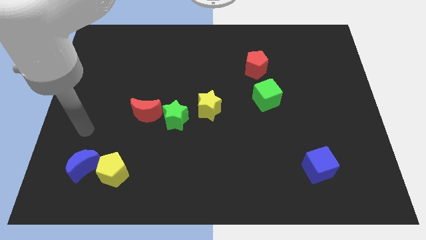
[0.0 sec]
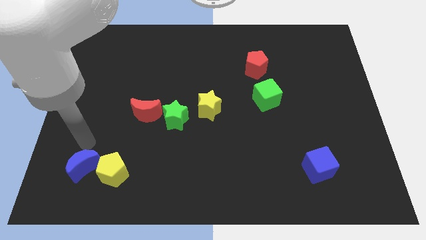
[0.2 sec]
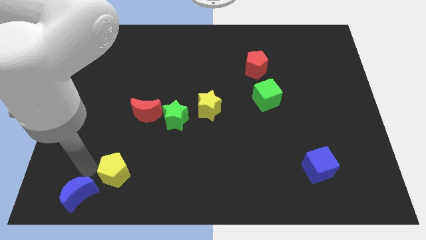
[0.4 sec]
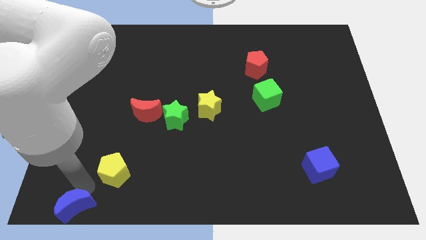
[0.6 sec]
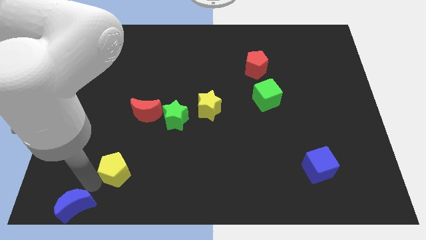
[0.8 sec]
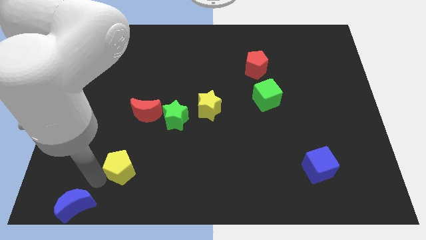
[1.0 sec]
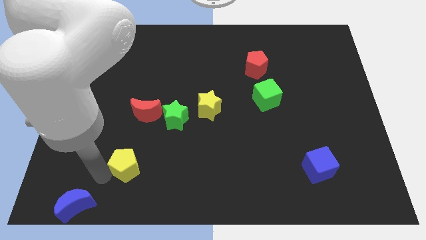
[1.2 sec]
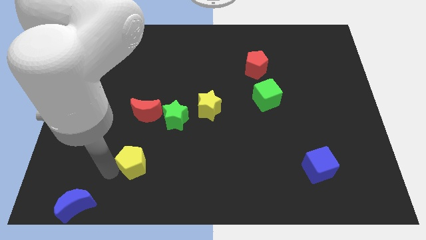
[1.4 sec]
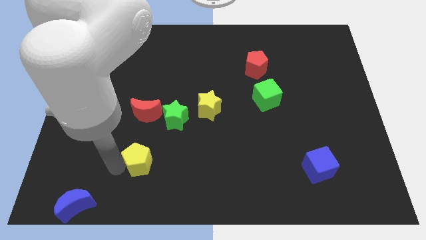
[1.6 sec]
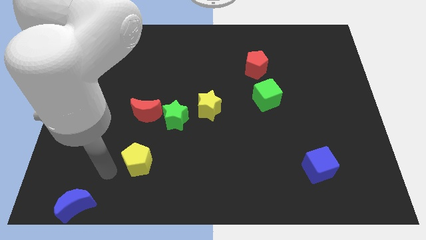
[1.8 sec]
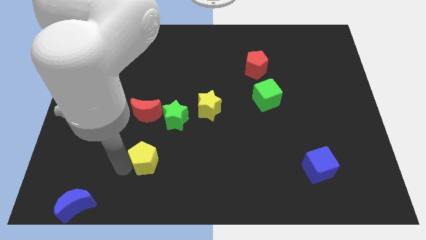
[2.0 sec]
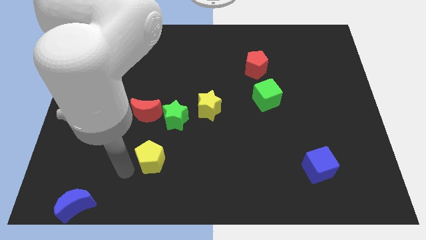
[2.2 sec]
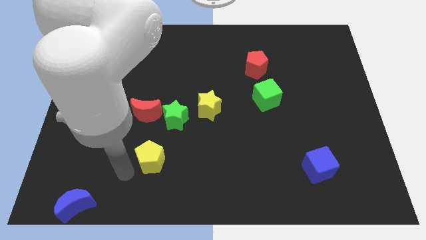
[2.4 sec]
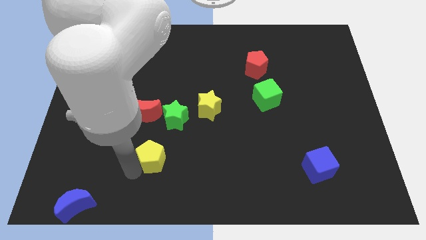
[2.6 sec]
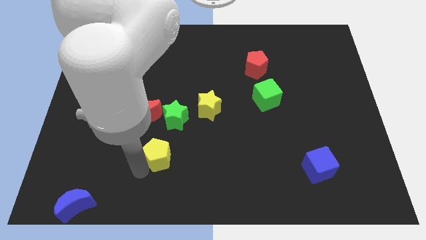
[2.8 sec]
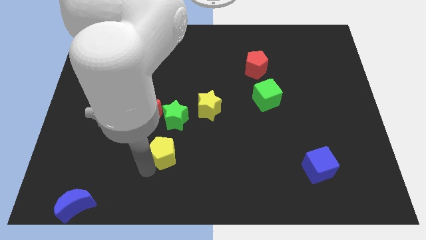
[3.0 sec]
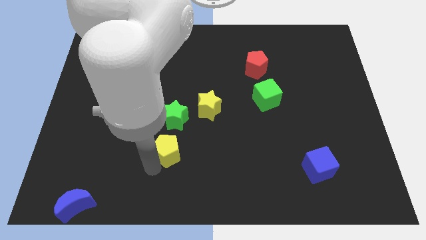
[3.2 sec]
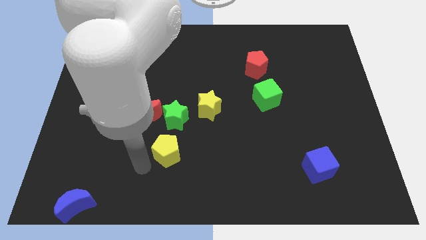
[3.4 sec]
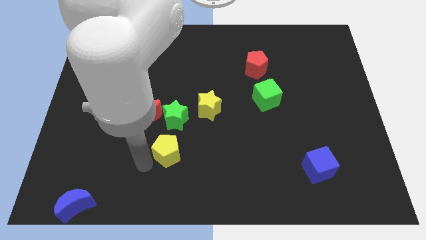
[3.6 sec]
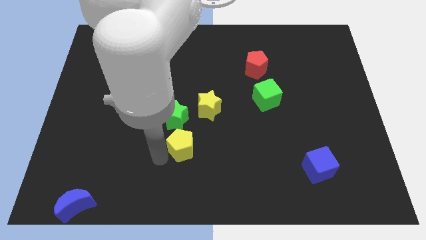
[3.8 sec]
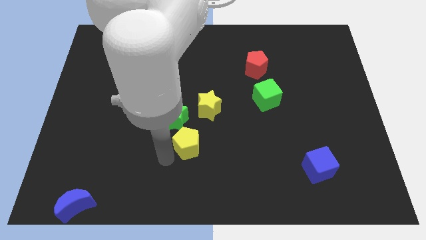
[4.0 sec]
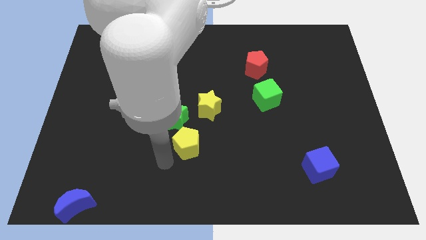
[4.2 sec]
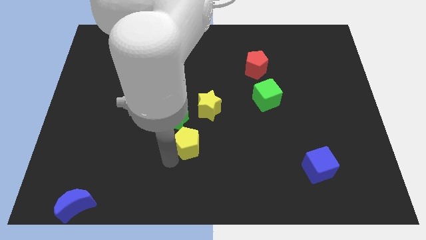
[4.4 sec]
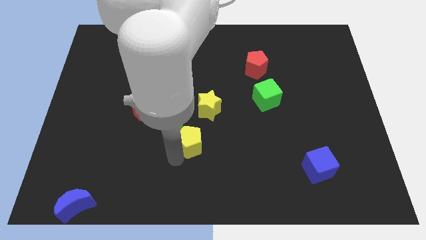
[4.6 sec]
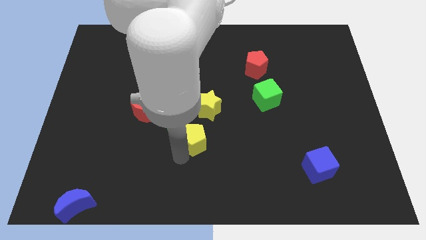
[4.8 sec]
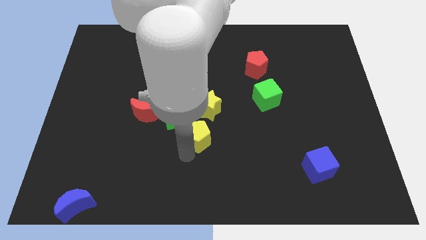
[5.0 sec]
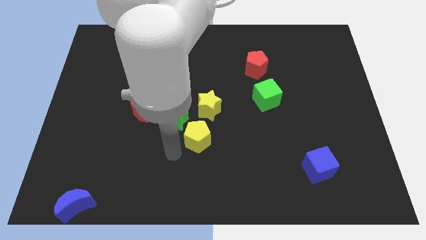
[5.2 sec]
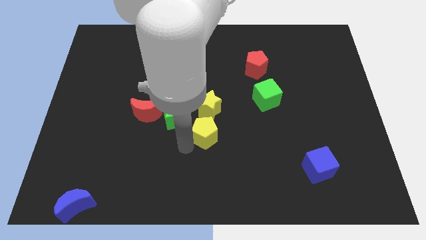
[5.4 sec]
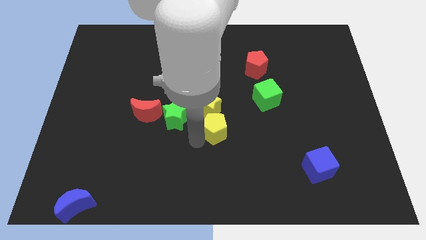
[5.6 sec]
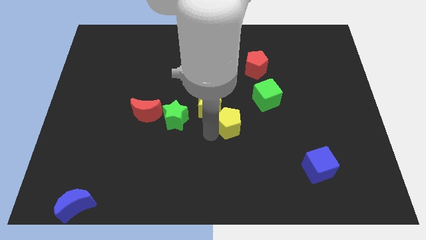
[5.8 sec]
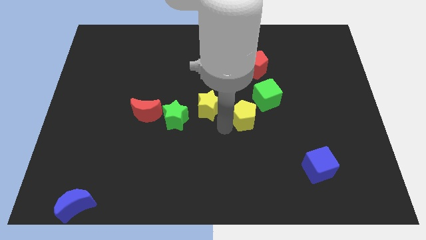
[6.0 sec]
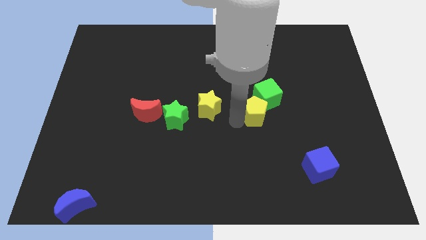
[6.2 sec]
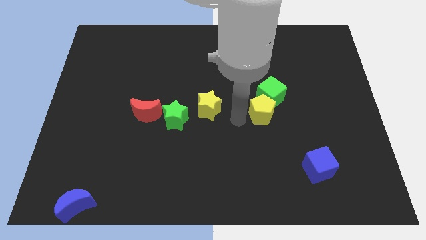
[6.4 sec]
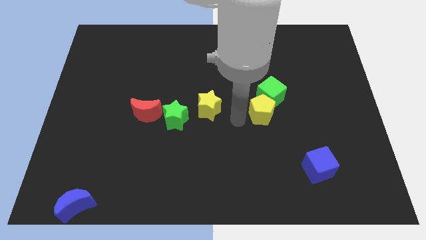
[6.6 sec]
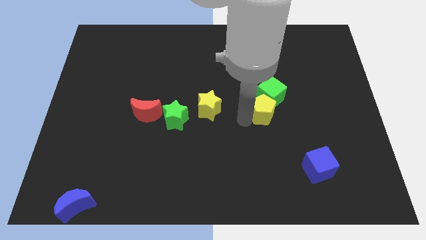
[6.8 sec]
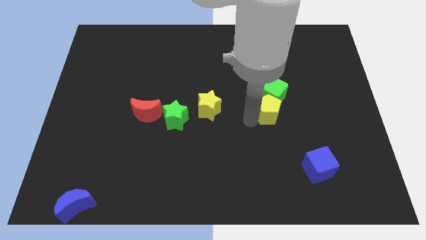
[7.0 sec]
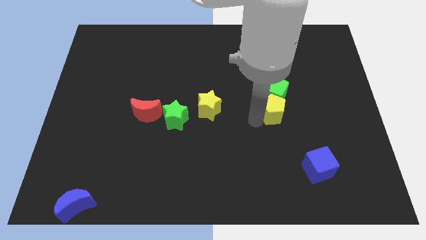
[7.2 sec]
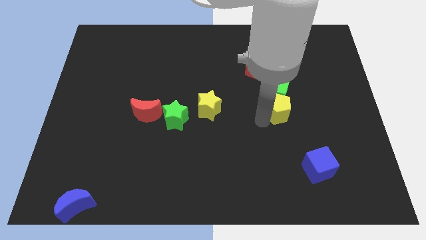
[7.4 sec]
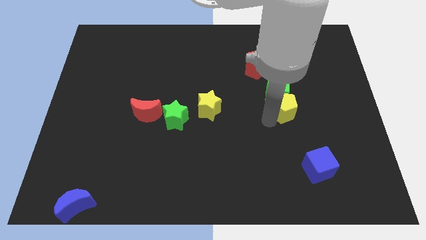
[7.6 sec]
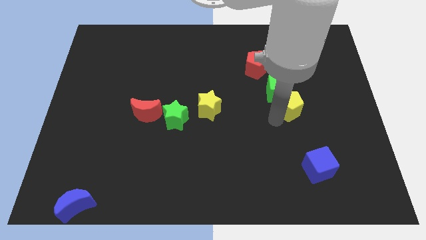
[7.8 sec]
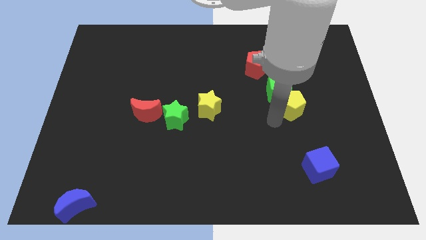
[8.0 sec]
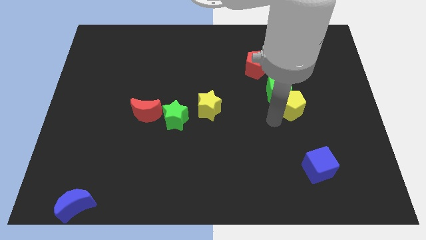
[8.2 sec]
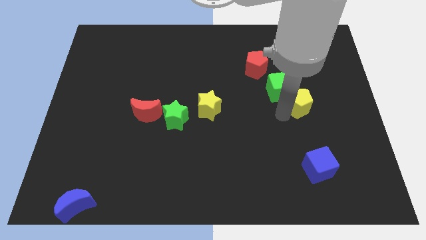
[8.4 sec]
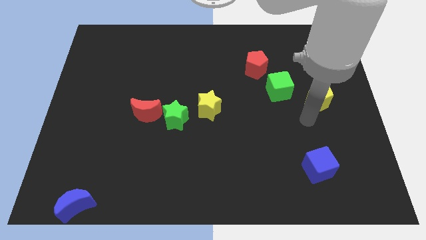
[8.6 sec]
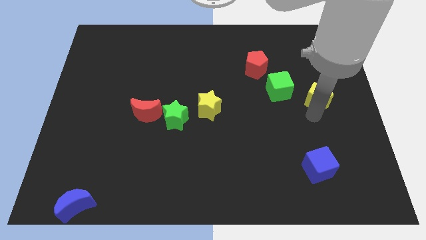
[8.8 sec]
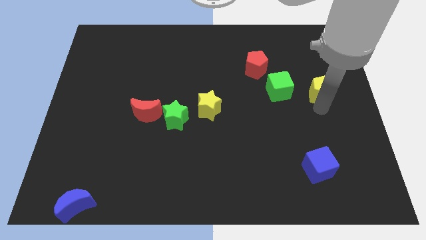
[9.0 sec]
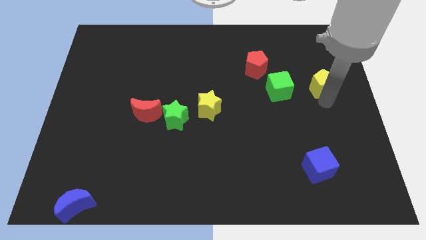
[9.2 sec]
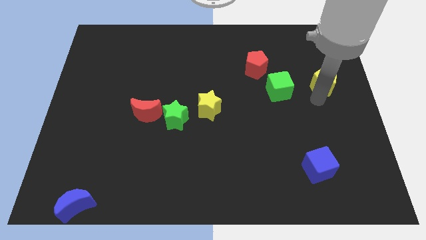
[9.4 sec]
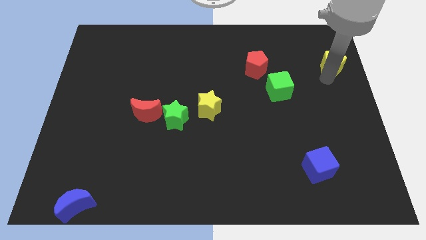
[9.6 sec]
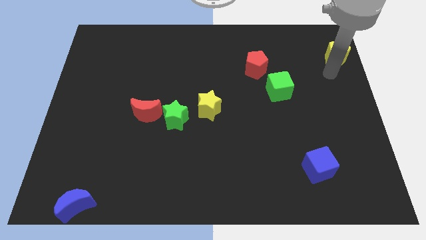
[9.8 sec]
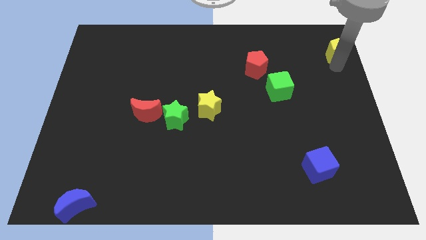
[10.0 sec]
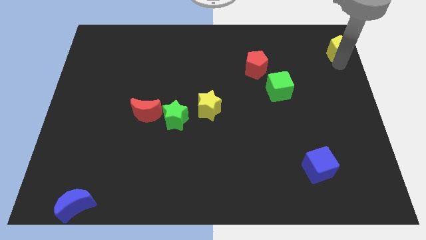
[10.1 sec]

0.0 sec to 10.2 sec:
push the yellow pentagon to the top right

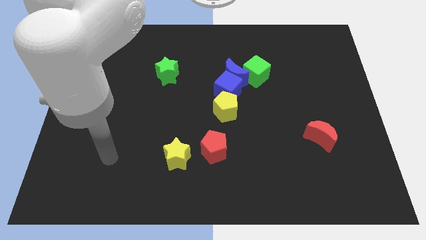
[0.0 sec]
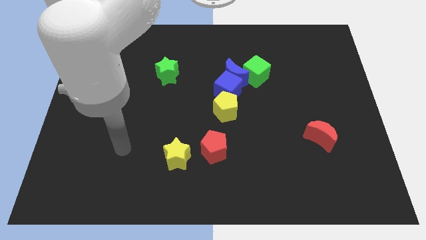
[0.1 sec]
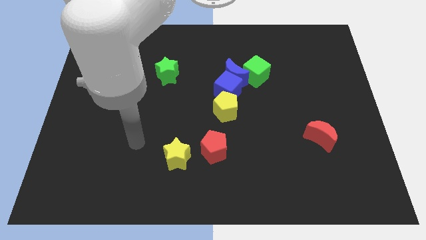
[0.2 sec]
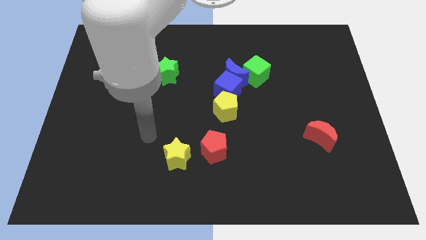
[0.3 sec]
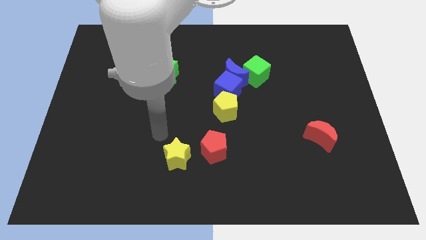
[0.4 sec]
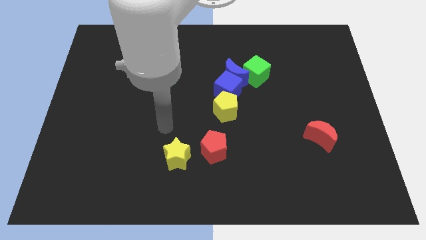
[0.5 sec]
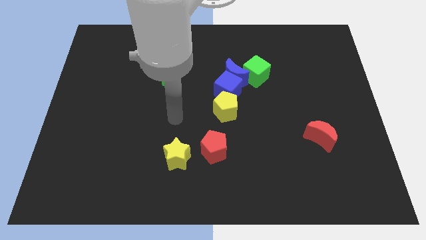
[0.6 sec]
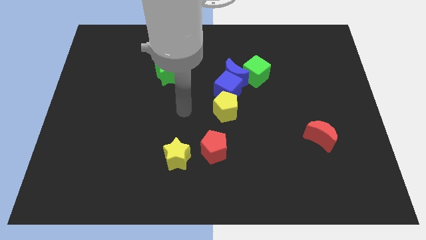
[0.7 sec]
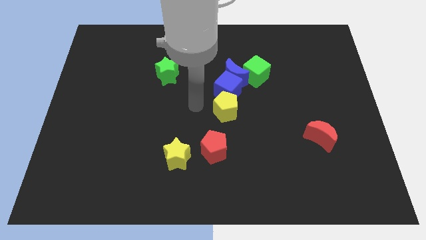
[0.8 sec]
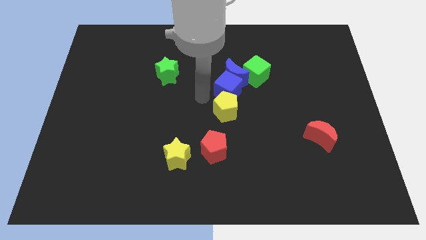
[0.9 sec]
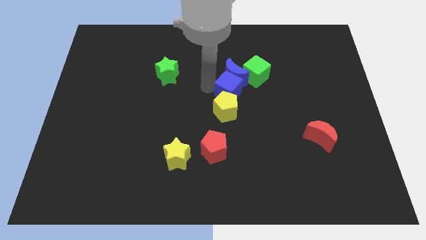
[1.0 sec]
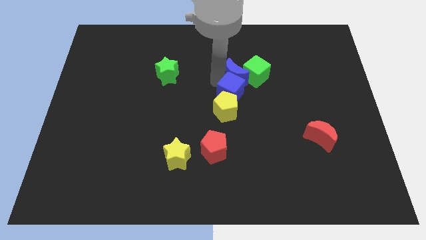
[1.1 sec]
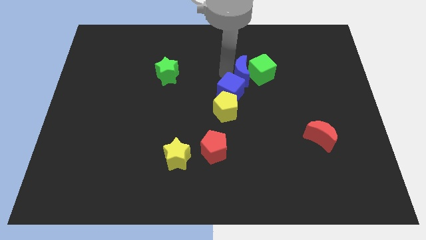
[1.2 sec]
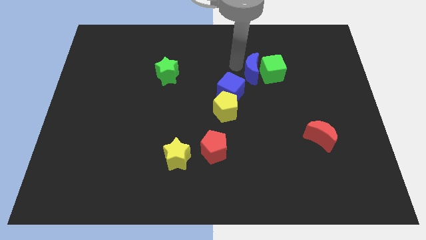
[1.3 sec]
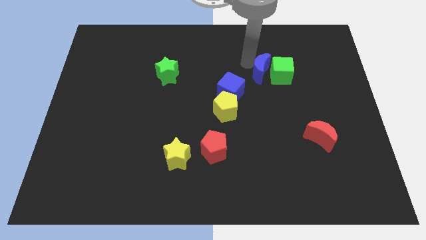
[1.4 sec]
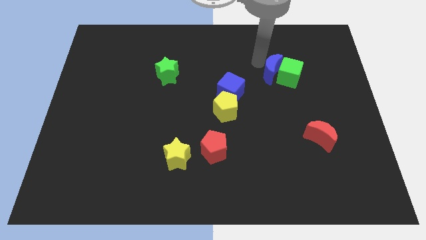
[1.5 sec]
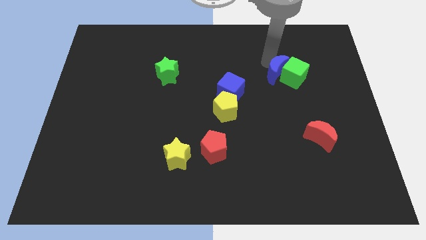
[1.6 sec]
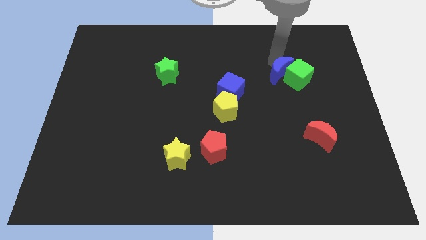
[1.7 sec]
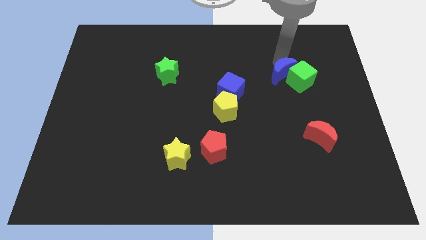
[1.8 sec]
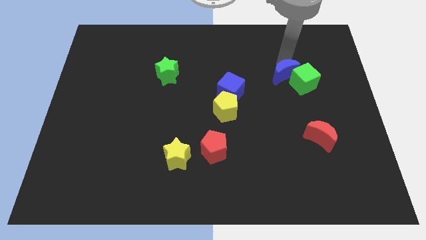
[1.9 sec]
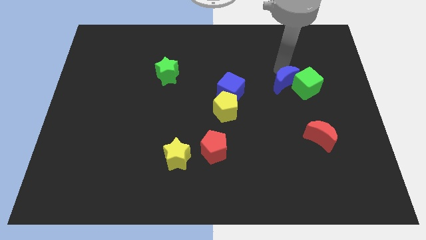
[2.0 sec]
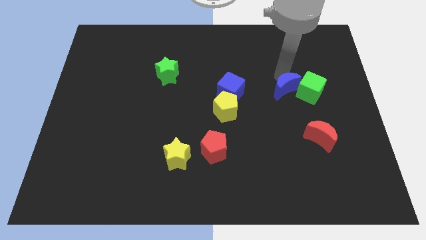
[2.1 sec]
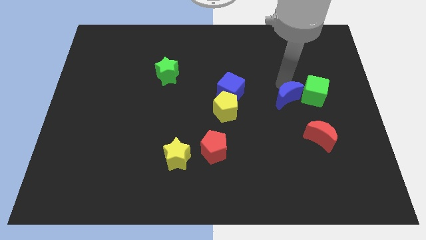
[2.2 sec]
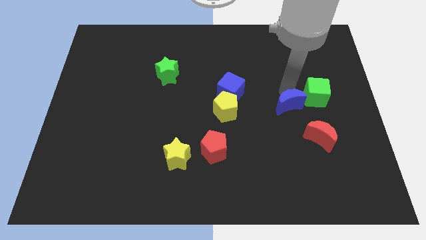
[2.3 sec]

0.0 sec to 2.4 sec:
move the green cube to the right side of the board
